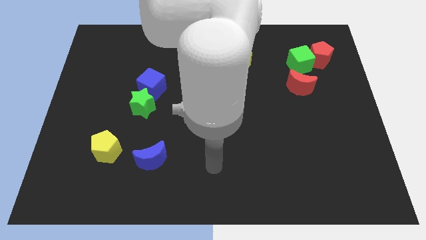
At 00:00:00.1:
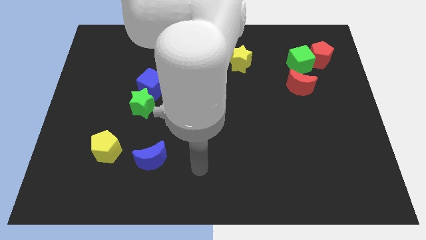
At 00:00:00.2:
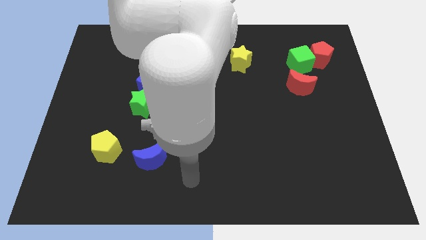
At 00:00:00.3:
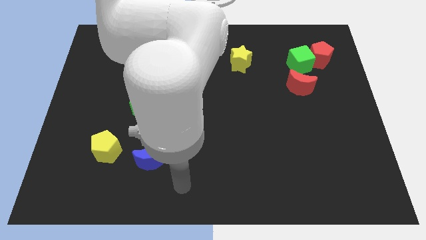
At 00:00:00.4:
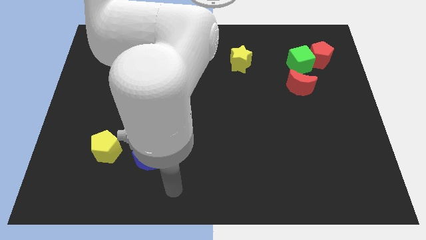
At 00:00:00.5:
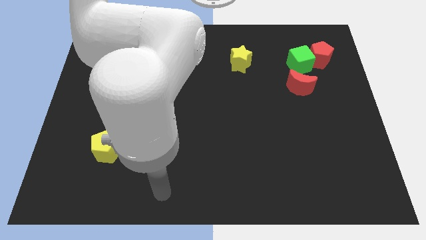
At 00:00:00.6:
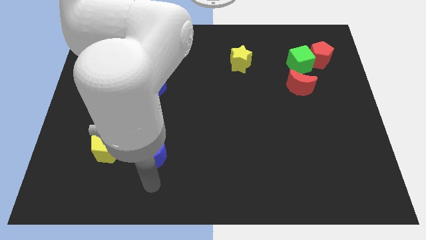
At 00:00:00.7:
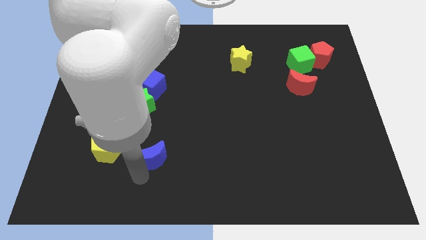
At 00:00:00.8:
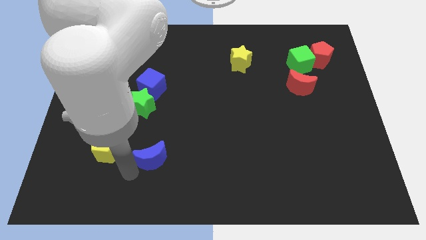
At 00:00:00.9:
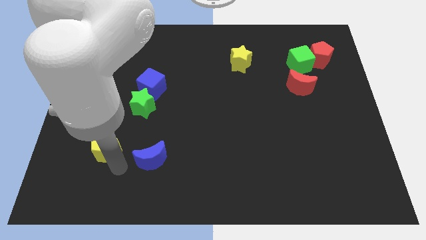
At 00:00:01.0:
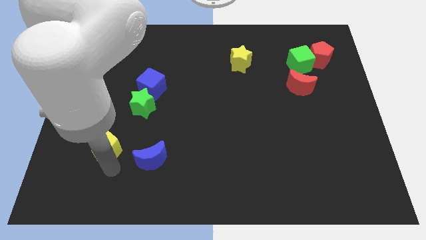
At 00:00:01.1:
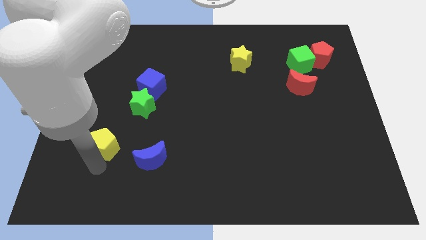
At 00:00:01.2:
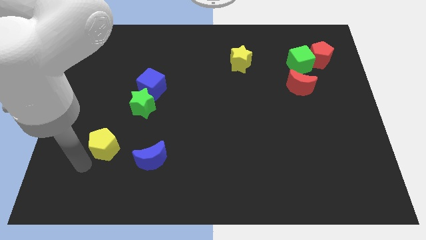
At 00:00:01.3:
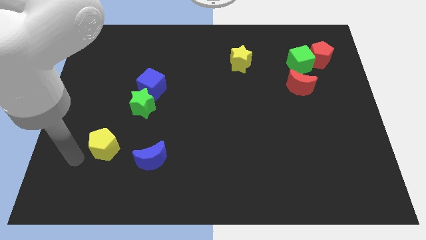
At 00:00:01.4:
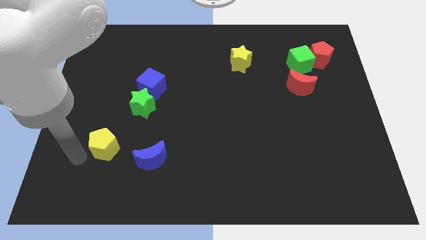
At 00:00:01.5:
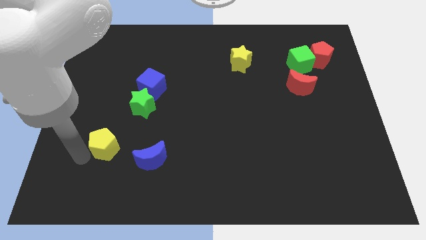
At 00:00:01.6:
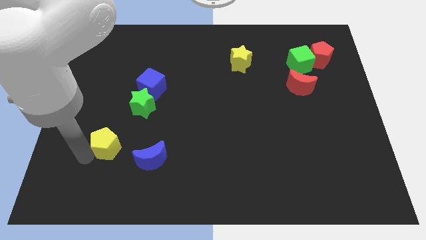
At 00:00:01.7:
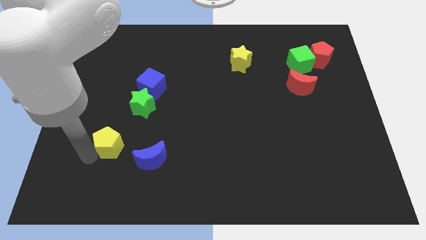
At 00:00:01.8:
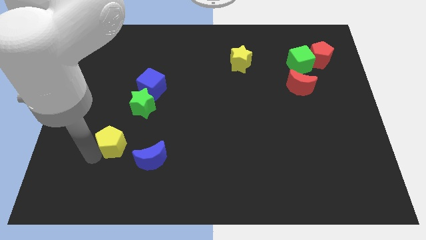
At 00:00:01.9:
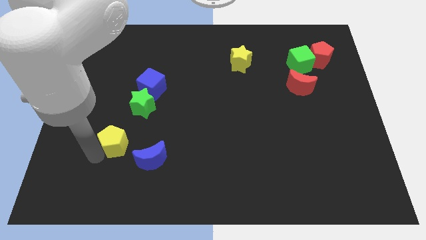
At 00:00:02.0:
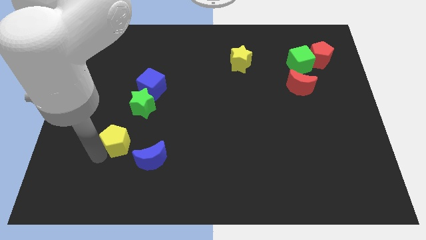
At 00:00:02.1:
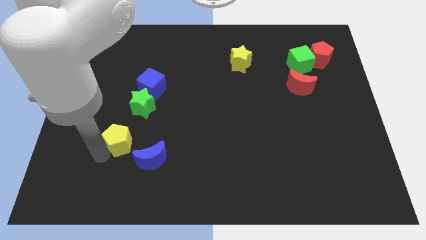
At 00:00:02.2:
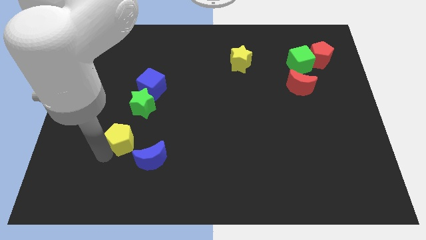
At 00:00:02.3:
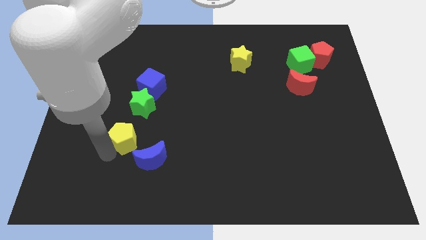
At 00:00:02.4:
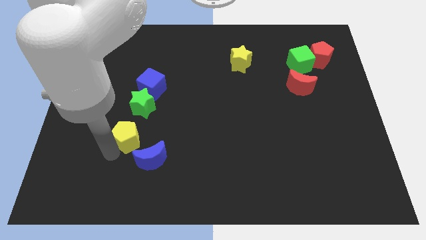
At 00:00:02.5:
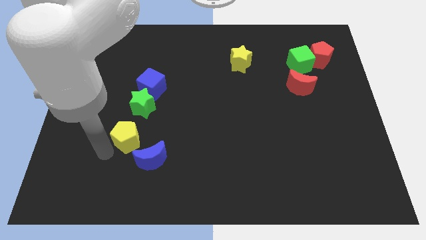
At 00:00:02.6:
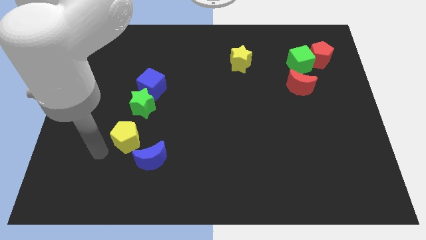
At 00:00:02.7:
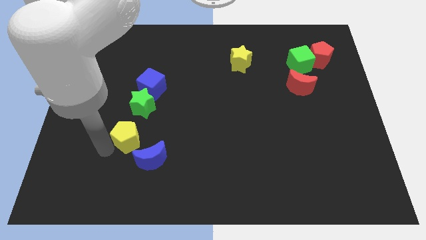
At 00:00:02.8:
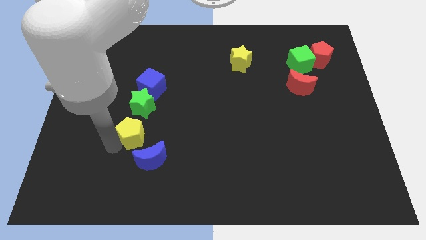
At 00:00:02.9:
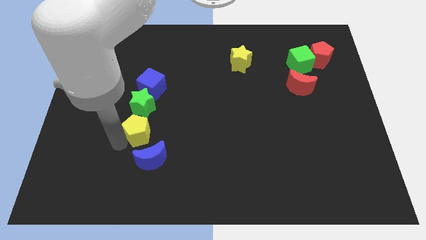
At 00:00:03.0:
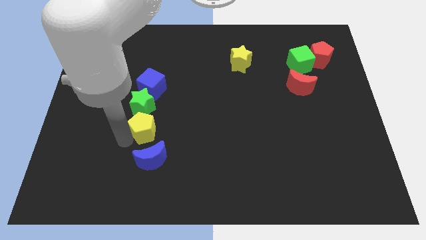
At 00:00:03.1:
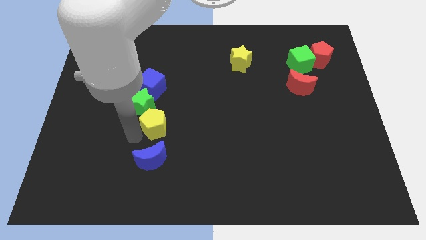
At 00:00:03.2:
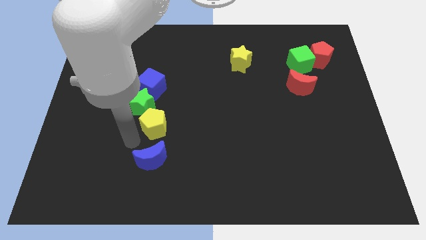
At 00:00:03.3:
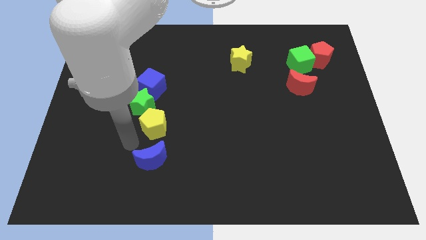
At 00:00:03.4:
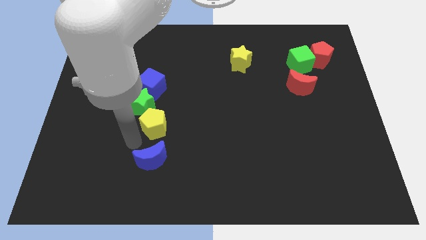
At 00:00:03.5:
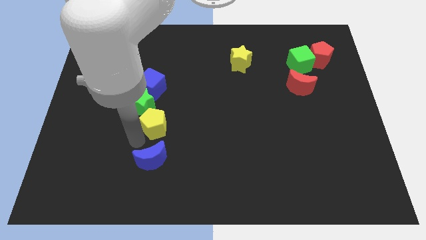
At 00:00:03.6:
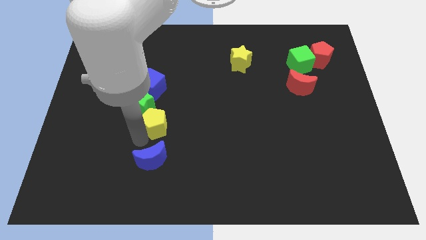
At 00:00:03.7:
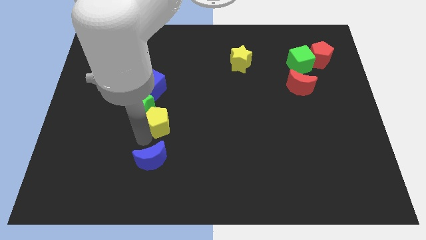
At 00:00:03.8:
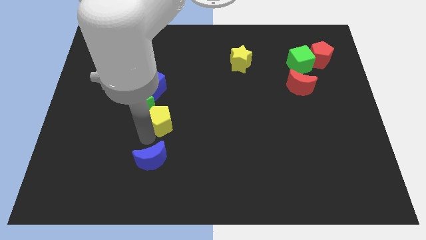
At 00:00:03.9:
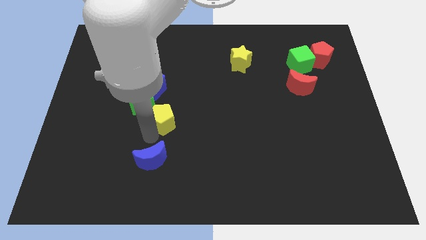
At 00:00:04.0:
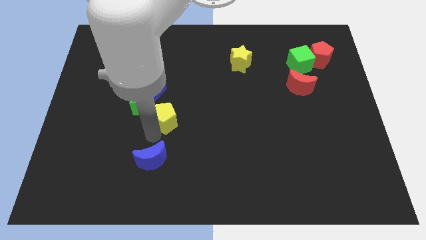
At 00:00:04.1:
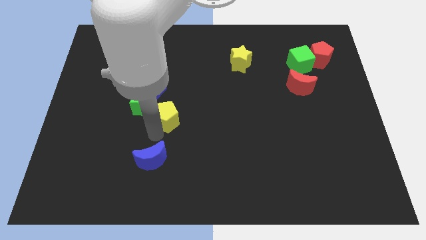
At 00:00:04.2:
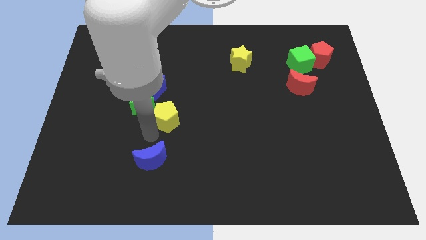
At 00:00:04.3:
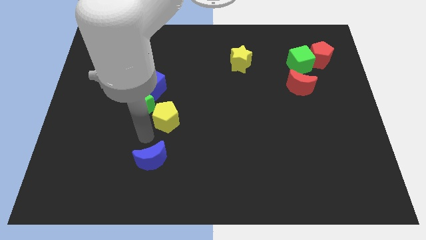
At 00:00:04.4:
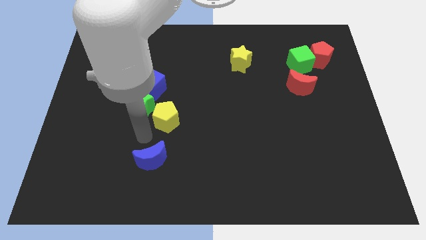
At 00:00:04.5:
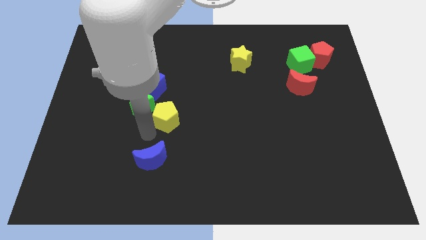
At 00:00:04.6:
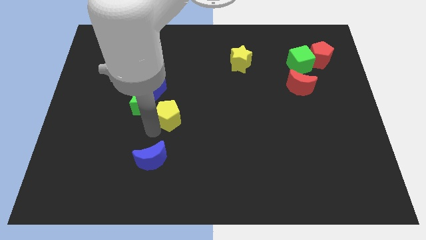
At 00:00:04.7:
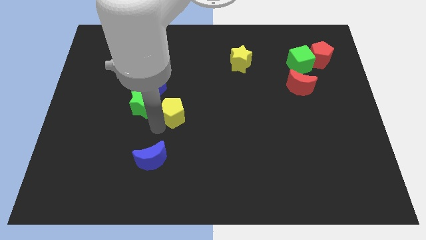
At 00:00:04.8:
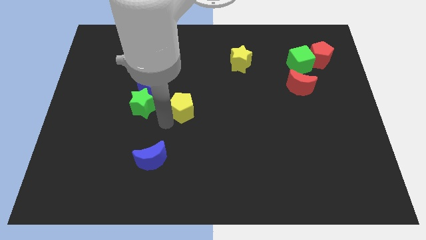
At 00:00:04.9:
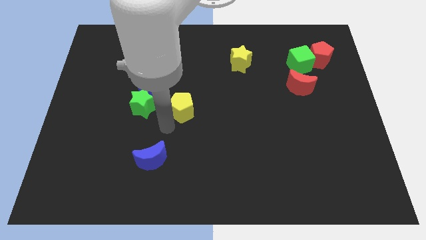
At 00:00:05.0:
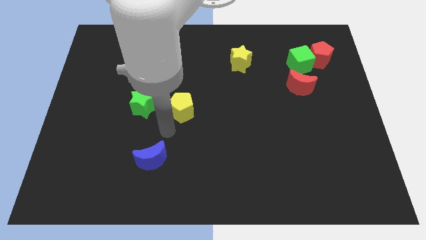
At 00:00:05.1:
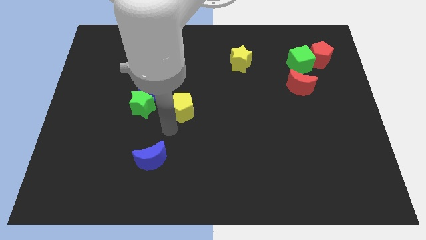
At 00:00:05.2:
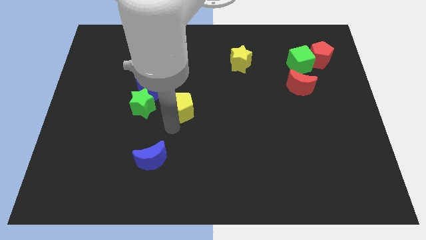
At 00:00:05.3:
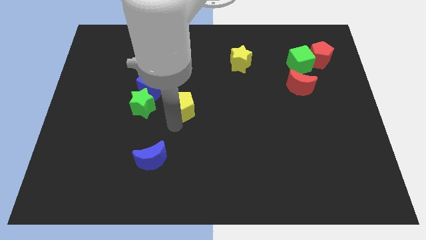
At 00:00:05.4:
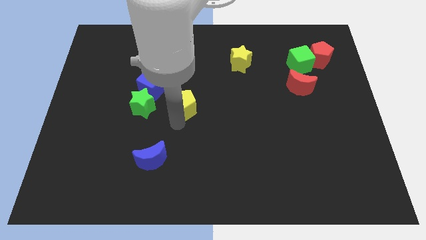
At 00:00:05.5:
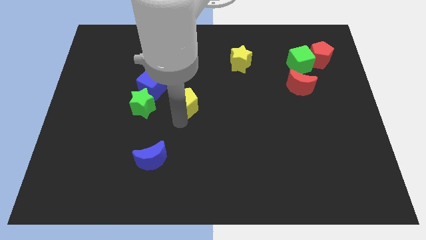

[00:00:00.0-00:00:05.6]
move the yellow pentagon diagonally up and to the right

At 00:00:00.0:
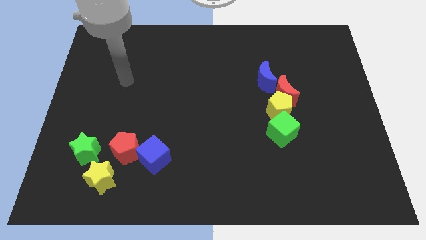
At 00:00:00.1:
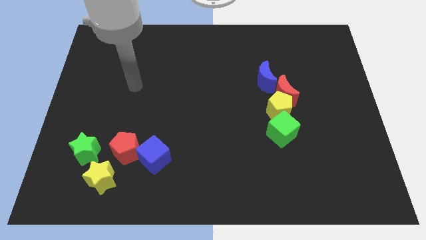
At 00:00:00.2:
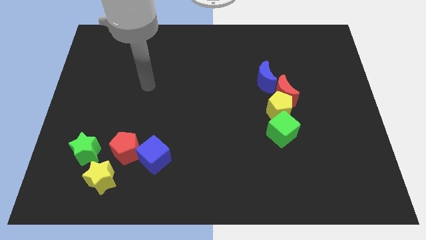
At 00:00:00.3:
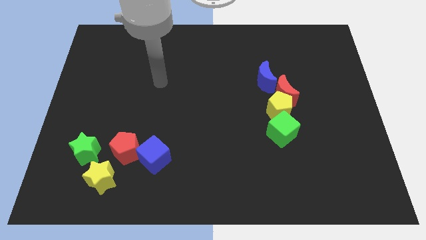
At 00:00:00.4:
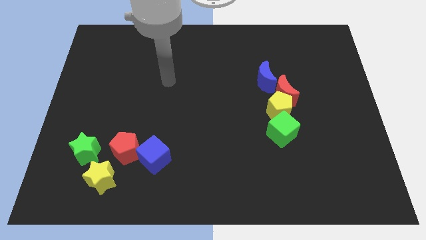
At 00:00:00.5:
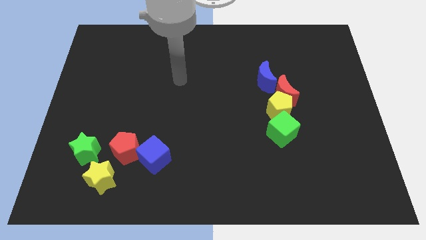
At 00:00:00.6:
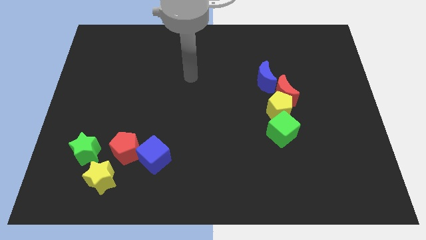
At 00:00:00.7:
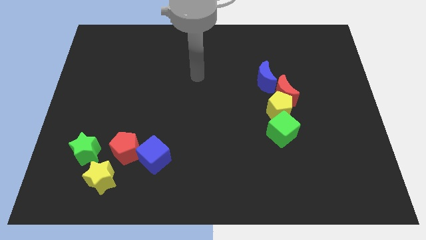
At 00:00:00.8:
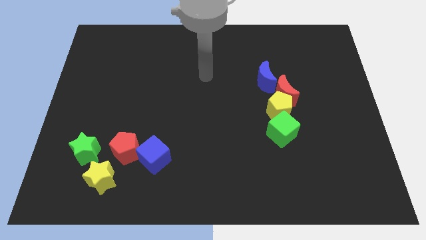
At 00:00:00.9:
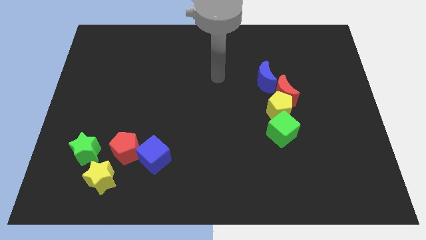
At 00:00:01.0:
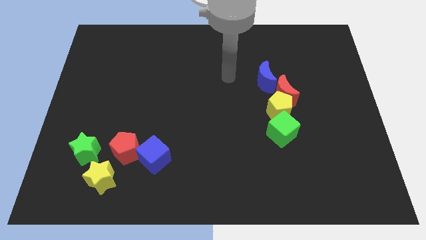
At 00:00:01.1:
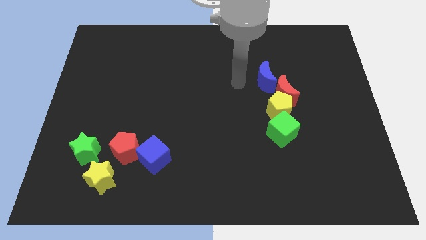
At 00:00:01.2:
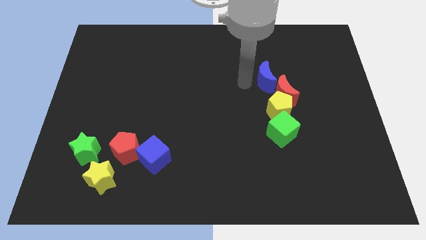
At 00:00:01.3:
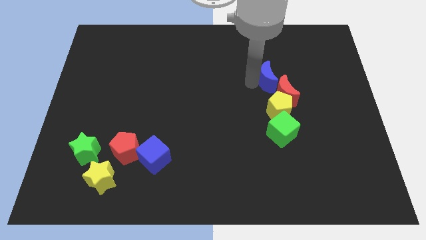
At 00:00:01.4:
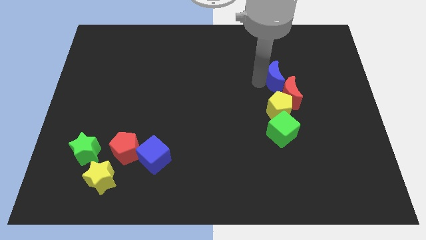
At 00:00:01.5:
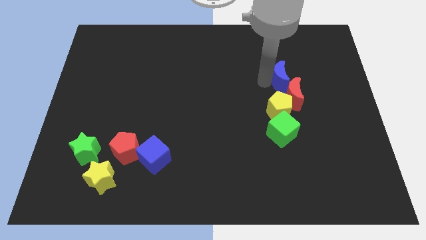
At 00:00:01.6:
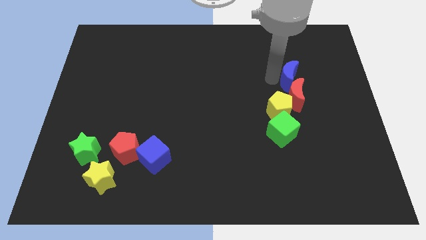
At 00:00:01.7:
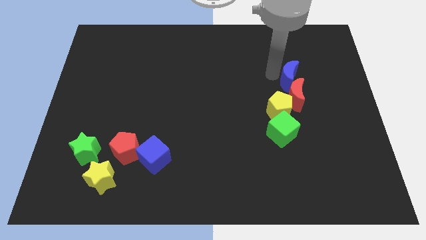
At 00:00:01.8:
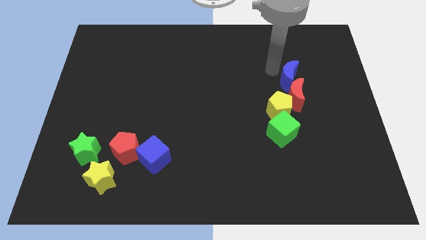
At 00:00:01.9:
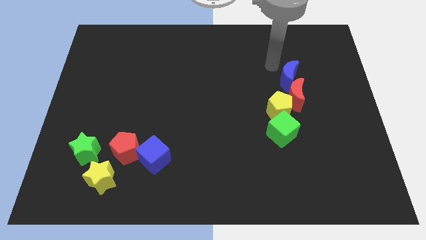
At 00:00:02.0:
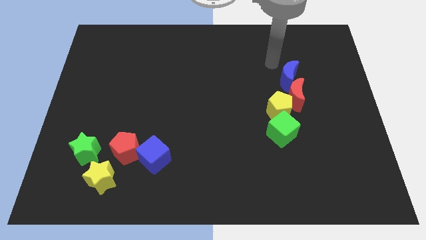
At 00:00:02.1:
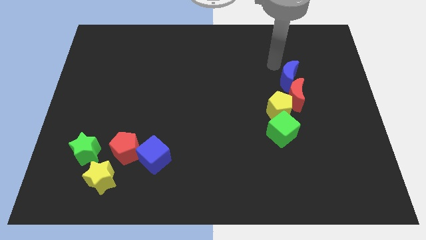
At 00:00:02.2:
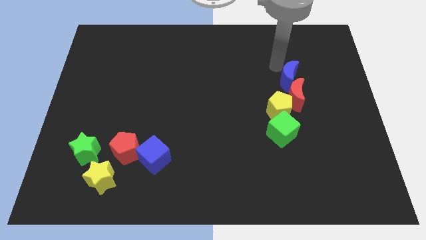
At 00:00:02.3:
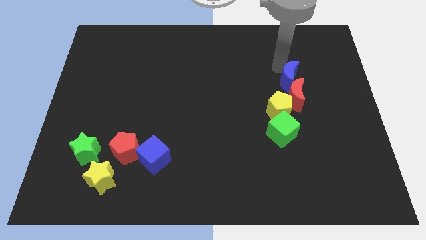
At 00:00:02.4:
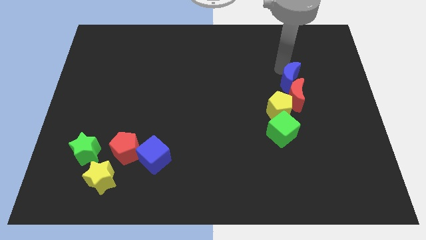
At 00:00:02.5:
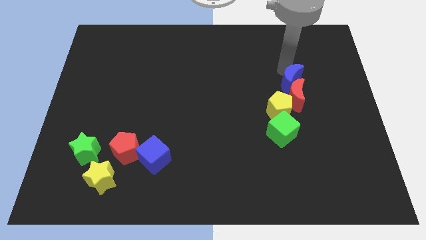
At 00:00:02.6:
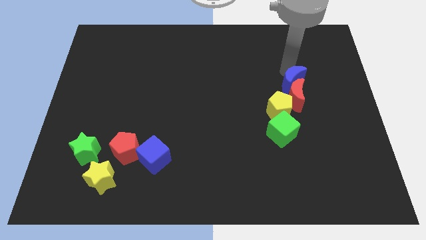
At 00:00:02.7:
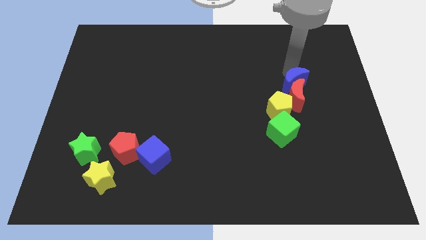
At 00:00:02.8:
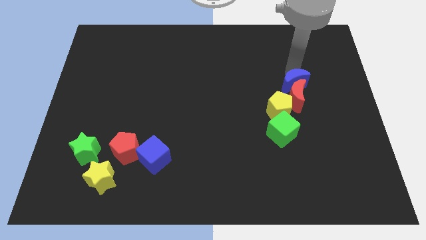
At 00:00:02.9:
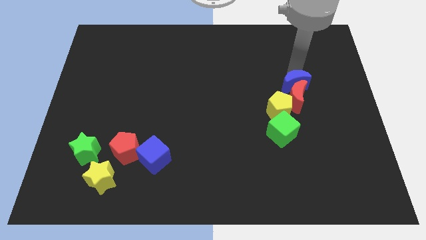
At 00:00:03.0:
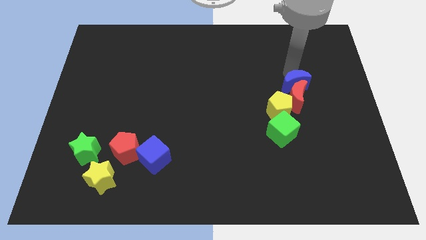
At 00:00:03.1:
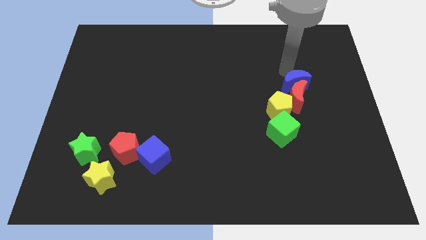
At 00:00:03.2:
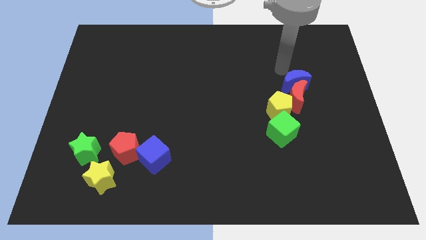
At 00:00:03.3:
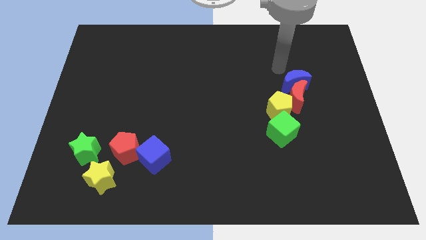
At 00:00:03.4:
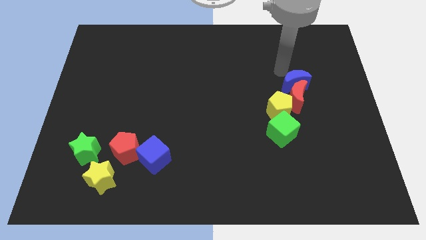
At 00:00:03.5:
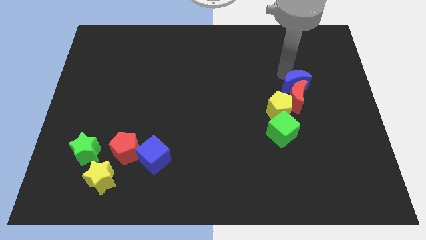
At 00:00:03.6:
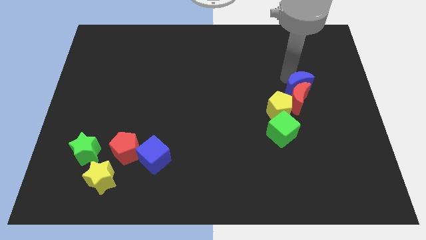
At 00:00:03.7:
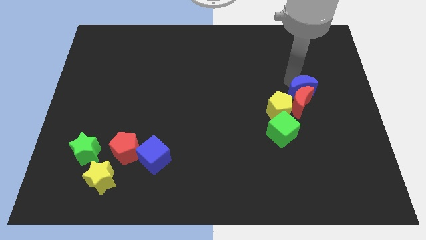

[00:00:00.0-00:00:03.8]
push the blue moon slightly downwards and right
